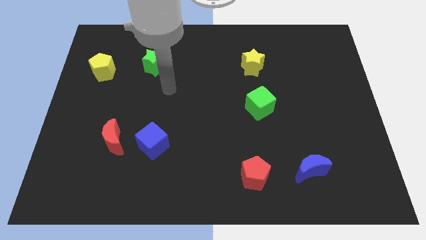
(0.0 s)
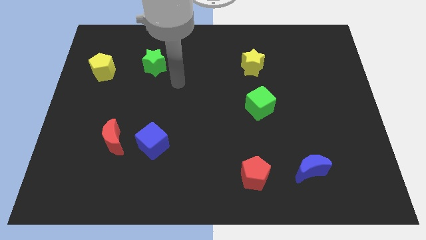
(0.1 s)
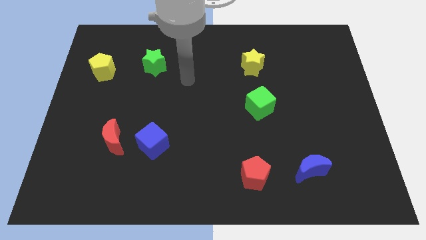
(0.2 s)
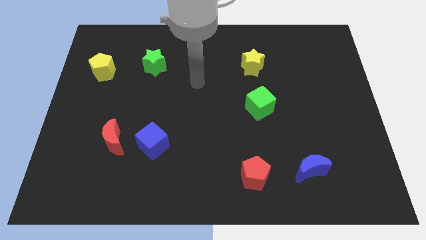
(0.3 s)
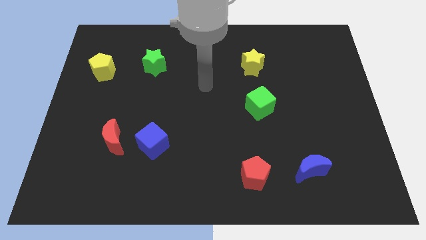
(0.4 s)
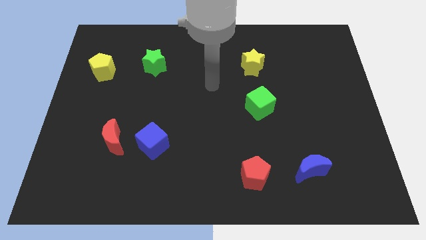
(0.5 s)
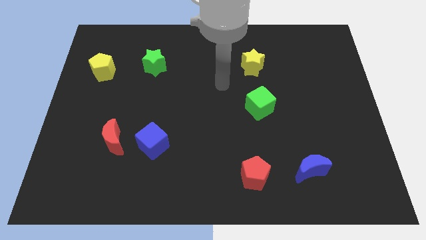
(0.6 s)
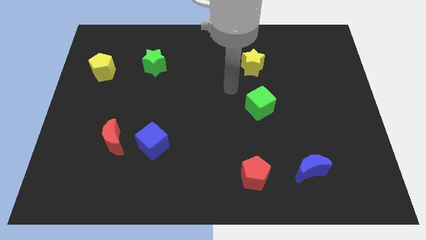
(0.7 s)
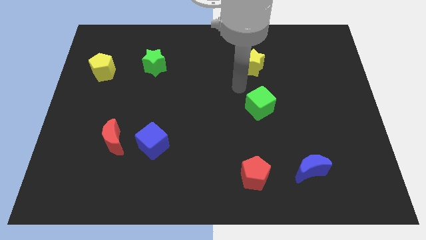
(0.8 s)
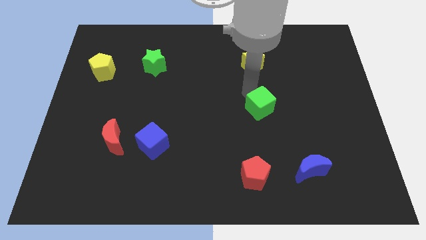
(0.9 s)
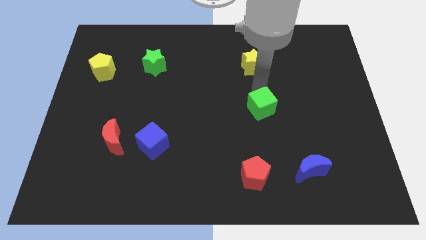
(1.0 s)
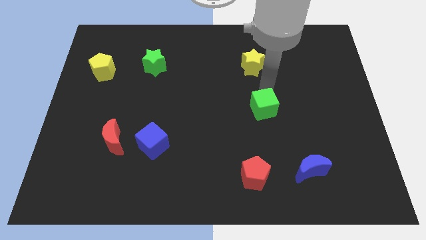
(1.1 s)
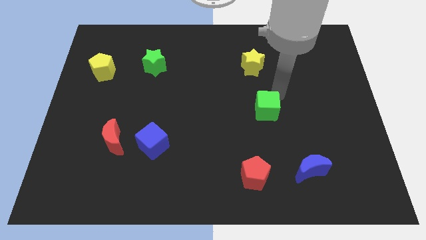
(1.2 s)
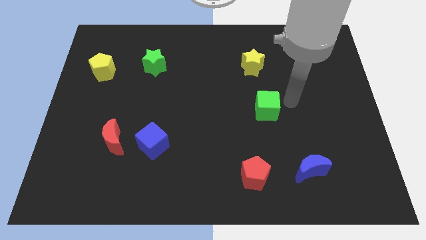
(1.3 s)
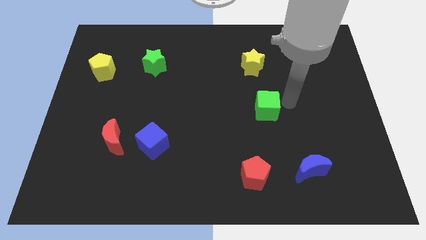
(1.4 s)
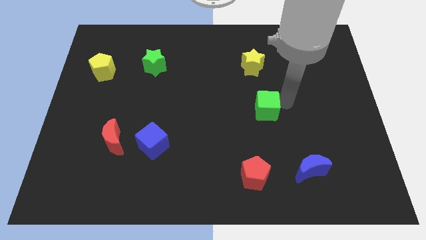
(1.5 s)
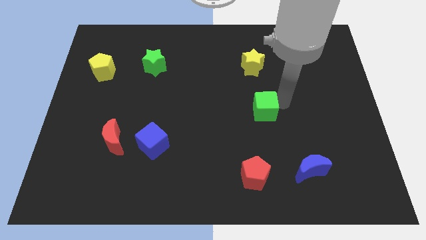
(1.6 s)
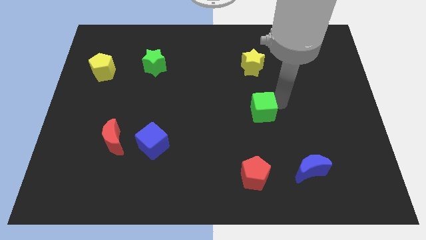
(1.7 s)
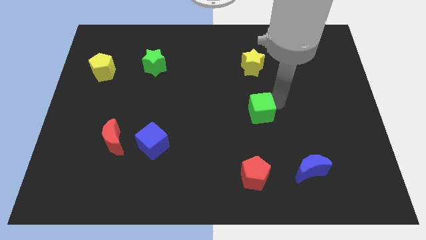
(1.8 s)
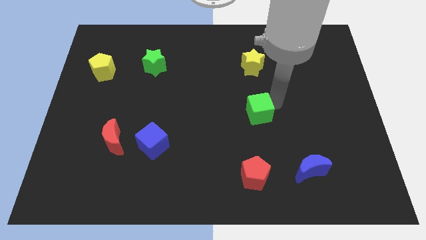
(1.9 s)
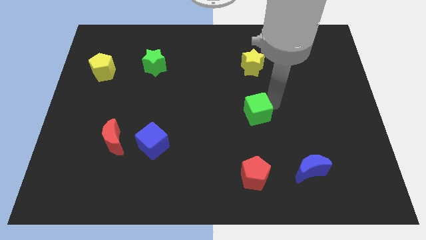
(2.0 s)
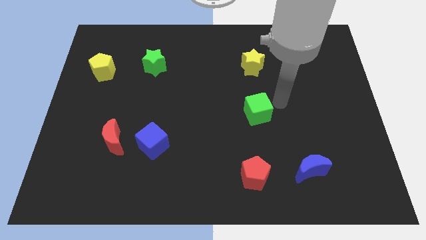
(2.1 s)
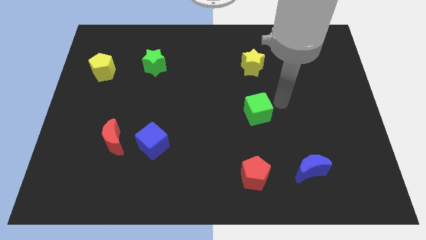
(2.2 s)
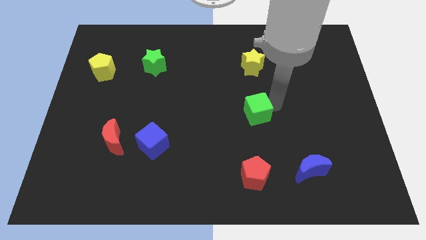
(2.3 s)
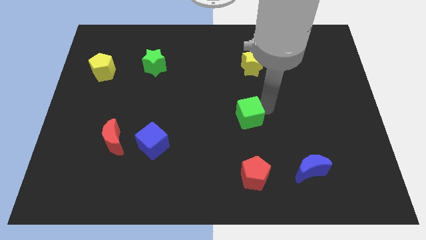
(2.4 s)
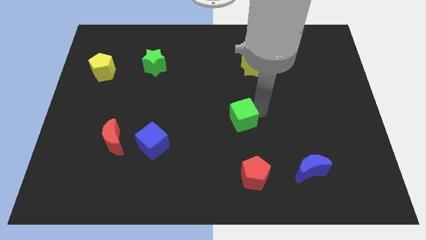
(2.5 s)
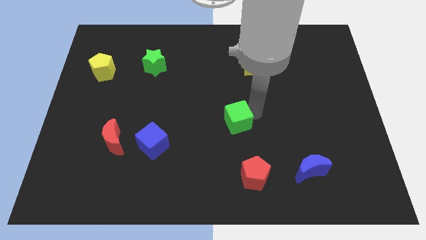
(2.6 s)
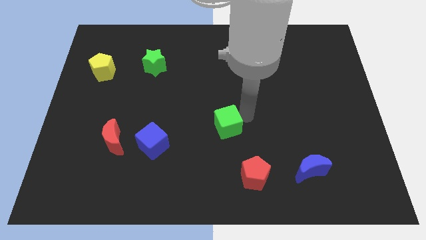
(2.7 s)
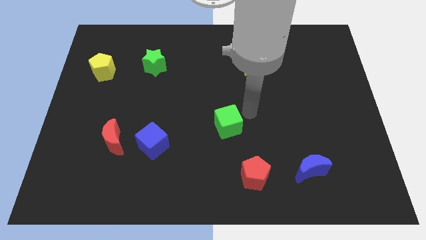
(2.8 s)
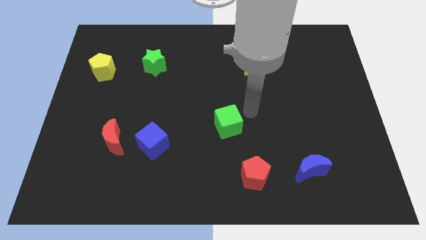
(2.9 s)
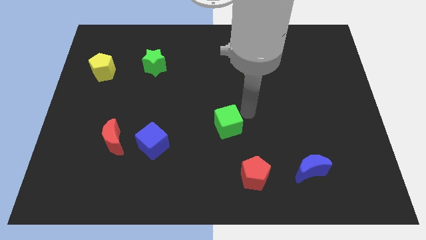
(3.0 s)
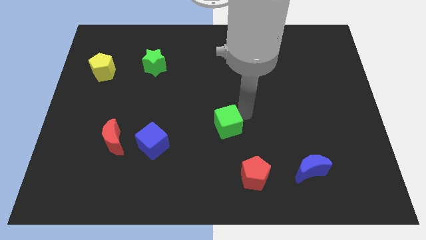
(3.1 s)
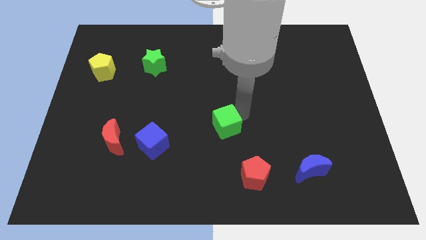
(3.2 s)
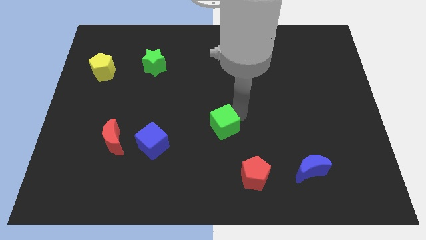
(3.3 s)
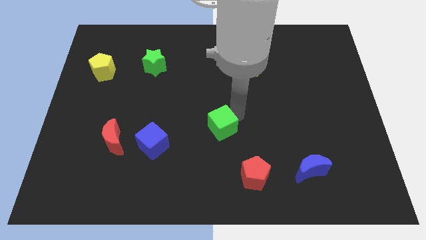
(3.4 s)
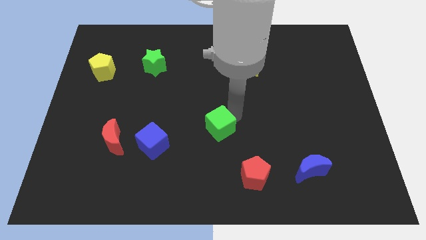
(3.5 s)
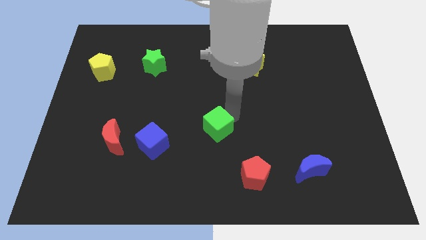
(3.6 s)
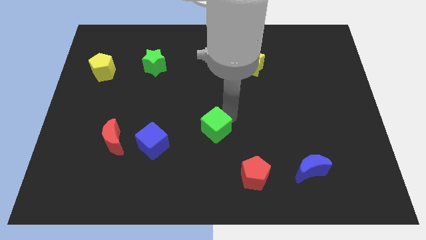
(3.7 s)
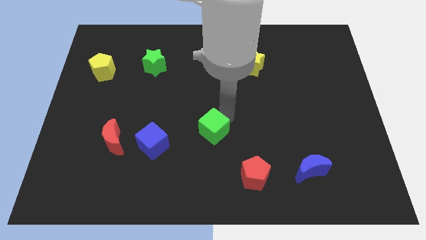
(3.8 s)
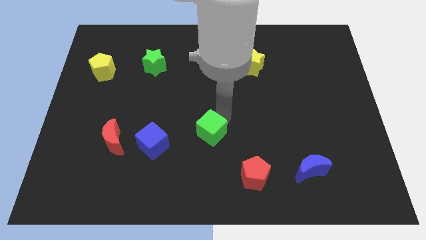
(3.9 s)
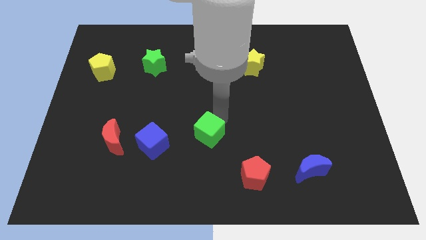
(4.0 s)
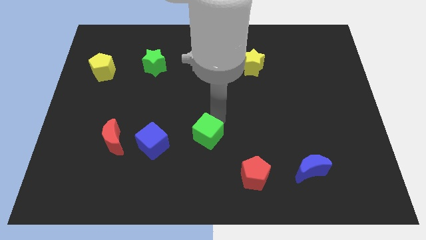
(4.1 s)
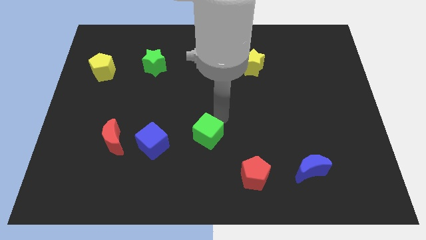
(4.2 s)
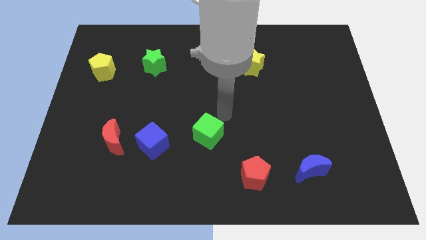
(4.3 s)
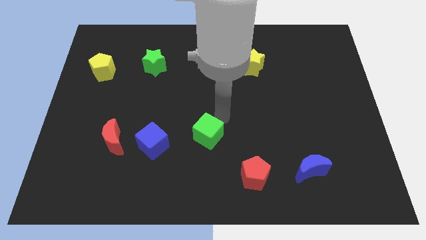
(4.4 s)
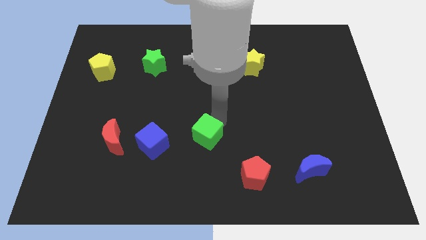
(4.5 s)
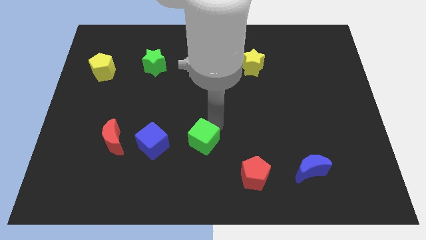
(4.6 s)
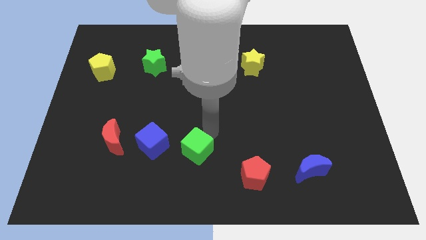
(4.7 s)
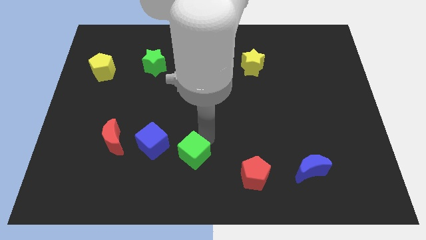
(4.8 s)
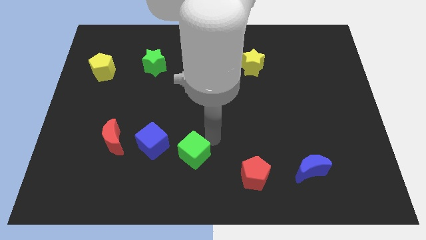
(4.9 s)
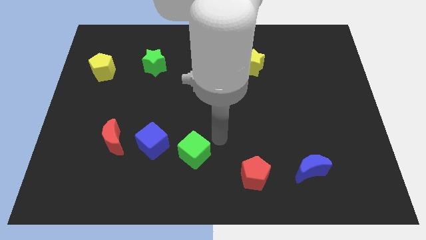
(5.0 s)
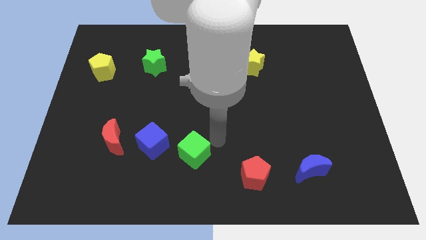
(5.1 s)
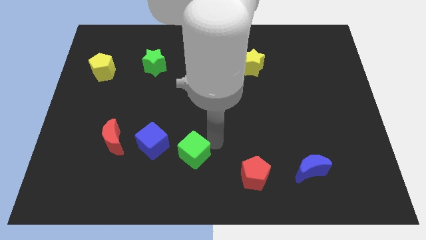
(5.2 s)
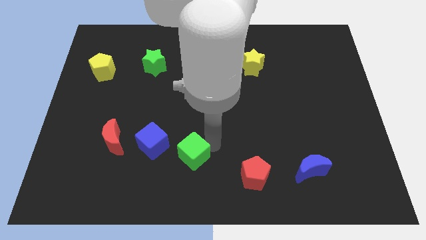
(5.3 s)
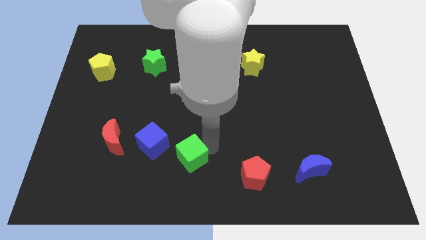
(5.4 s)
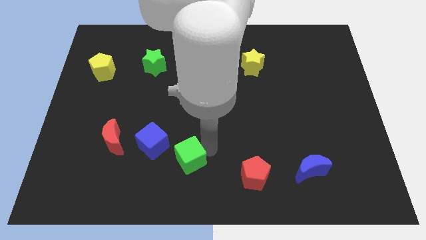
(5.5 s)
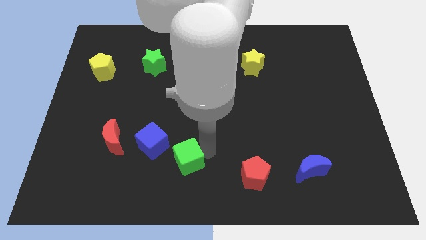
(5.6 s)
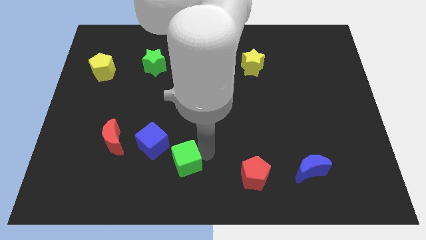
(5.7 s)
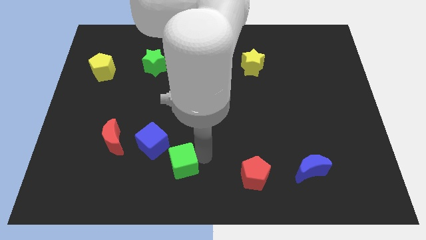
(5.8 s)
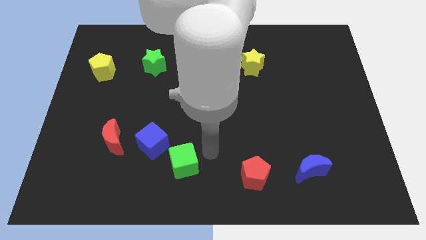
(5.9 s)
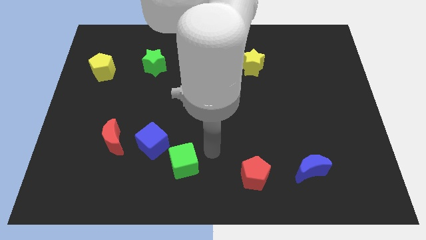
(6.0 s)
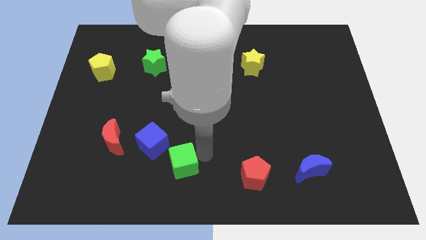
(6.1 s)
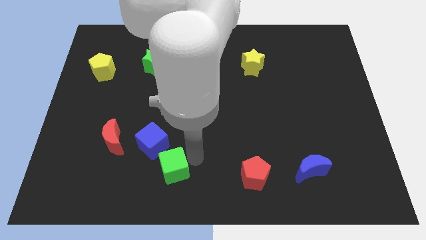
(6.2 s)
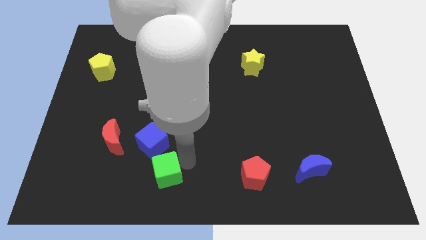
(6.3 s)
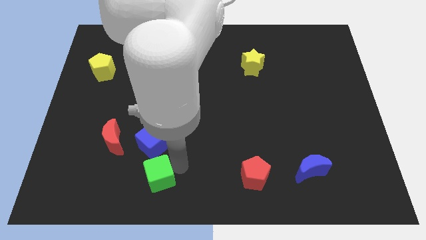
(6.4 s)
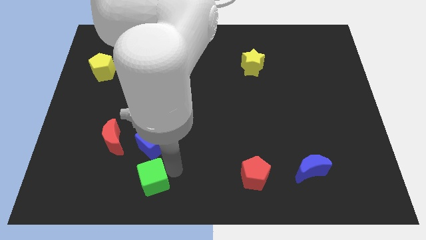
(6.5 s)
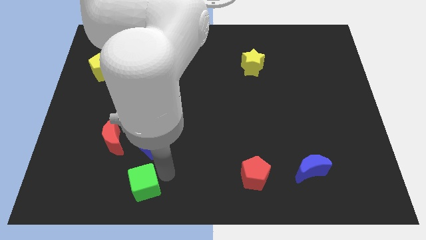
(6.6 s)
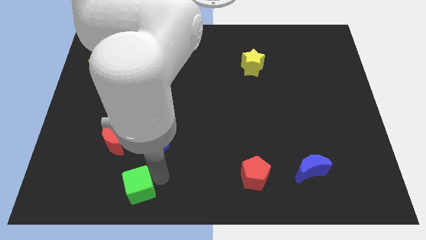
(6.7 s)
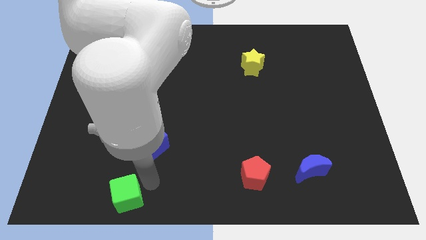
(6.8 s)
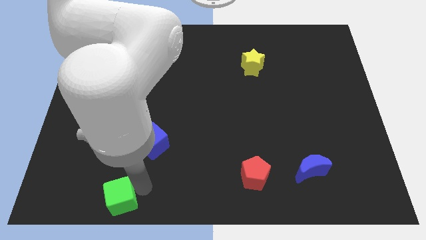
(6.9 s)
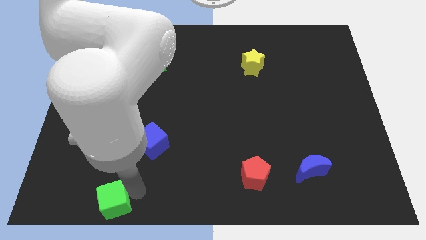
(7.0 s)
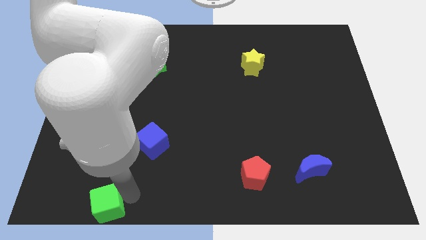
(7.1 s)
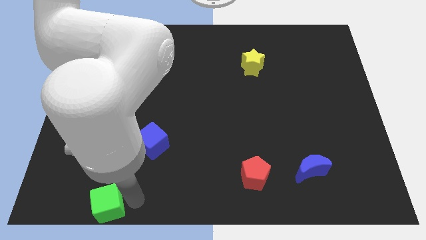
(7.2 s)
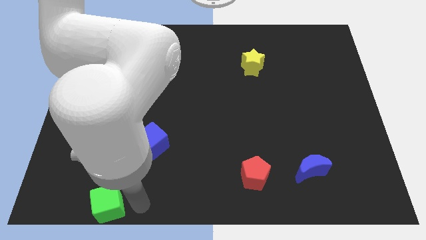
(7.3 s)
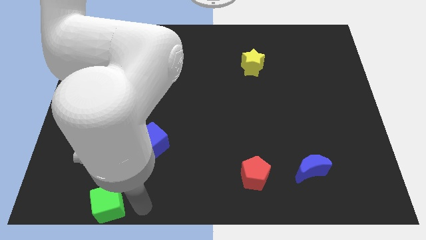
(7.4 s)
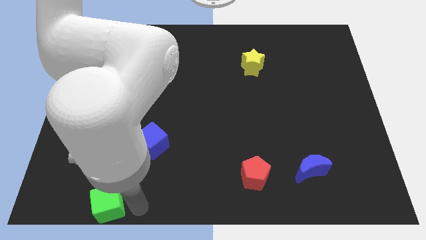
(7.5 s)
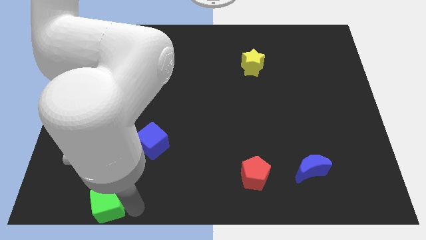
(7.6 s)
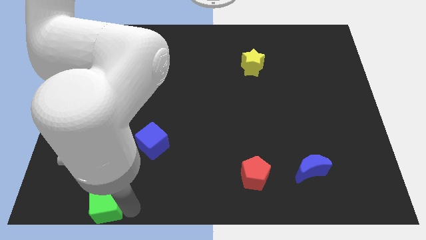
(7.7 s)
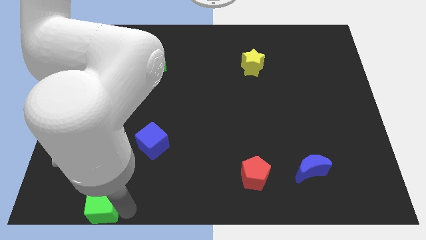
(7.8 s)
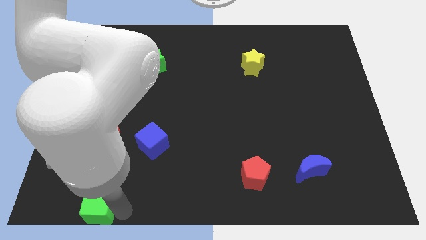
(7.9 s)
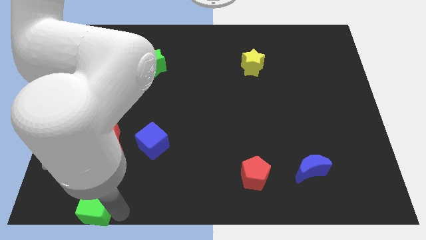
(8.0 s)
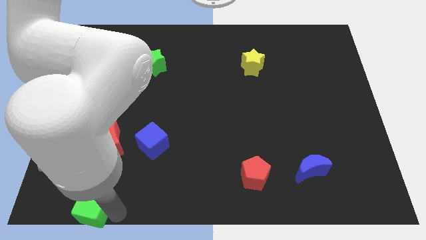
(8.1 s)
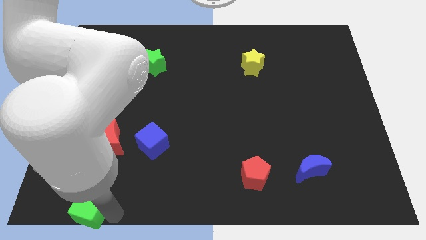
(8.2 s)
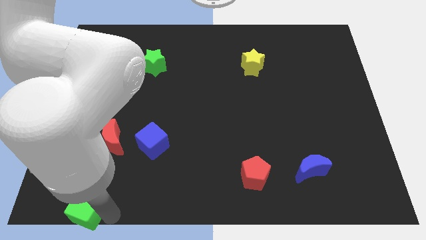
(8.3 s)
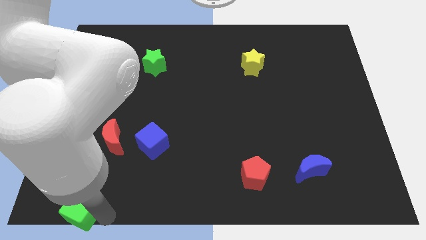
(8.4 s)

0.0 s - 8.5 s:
slide the green cube to the bottom left of the board
